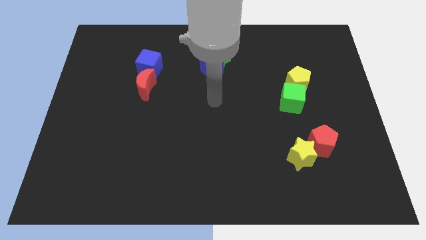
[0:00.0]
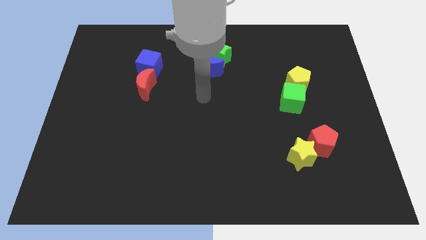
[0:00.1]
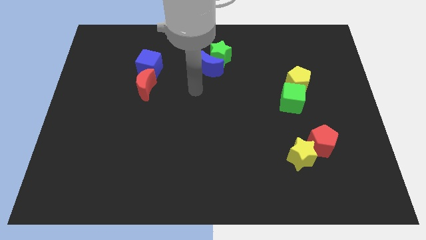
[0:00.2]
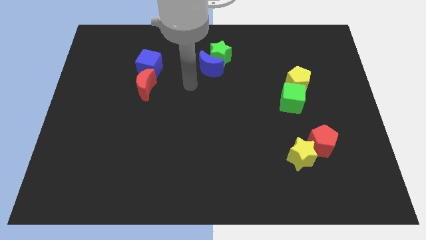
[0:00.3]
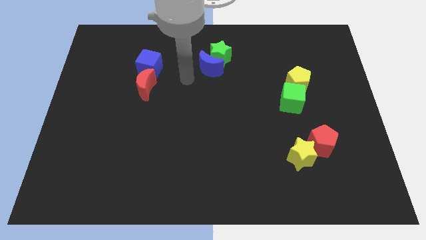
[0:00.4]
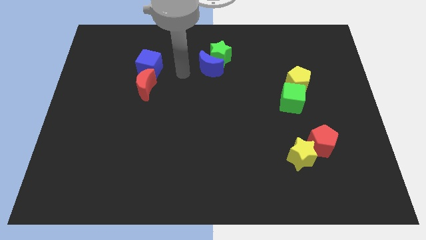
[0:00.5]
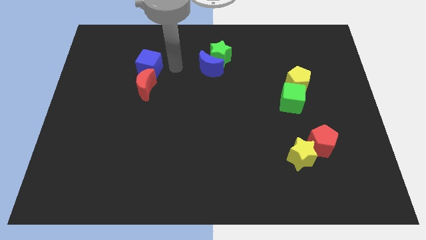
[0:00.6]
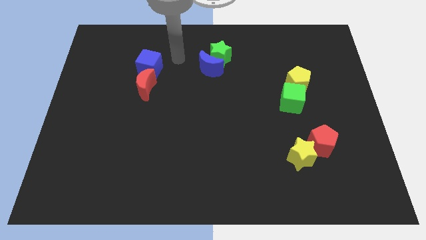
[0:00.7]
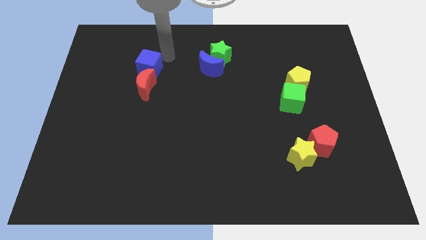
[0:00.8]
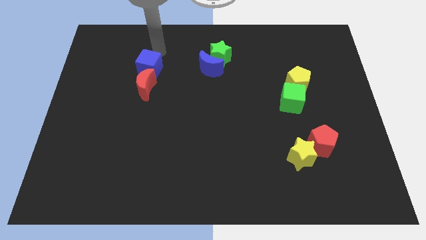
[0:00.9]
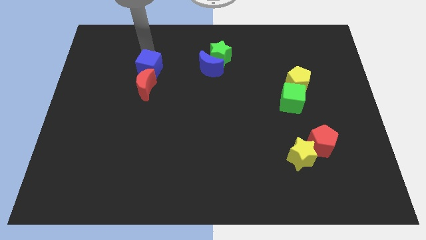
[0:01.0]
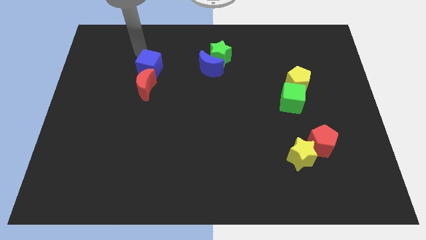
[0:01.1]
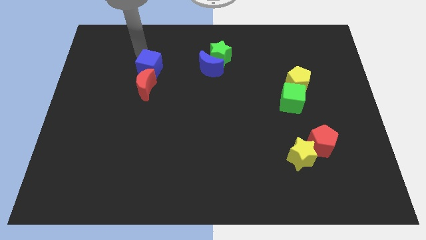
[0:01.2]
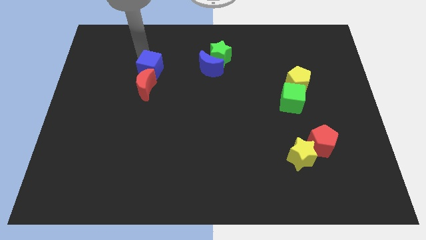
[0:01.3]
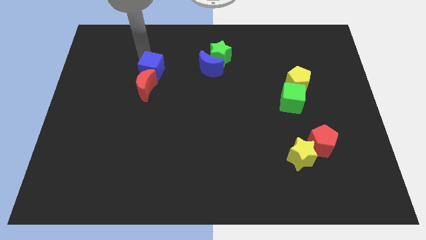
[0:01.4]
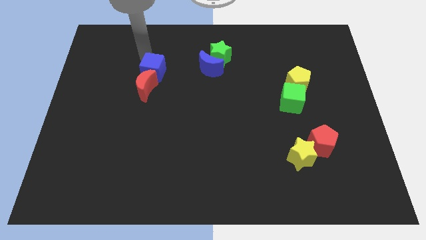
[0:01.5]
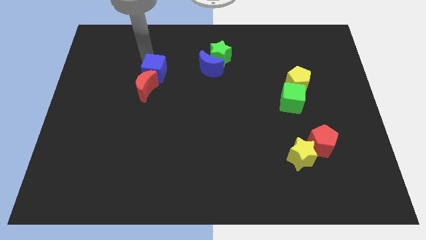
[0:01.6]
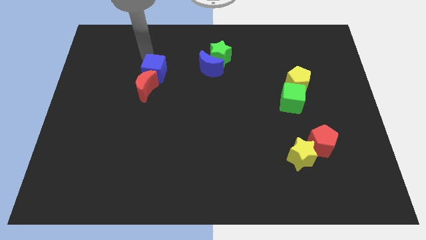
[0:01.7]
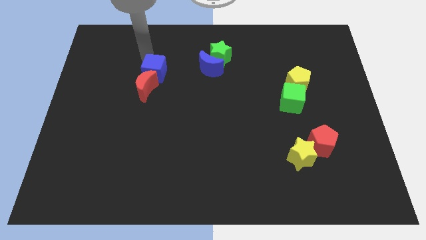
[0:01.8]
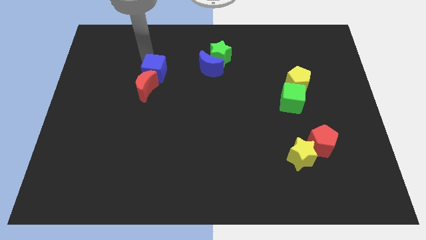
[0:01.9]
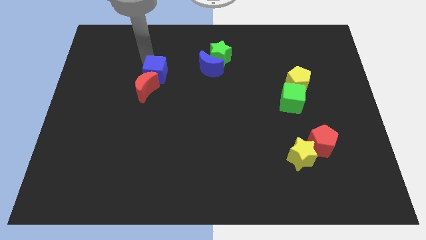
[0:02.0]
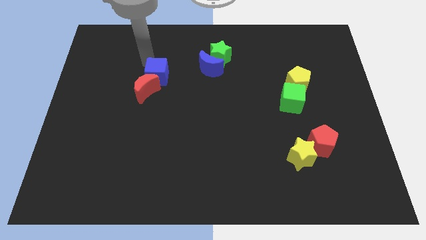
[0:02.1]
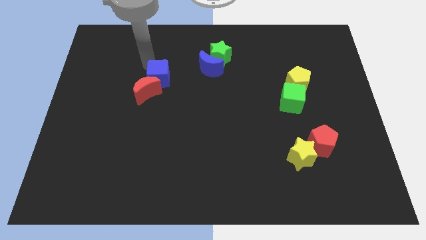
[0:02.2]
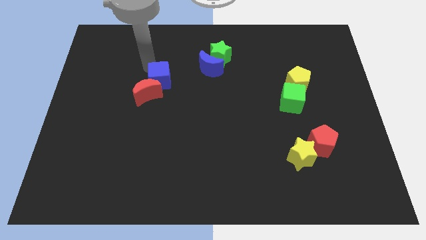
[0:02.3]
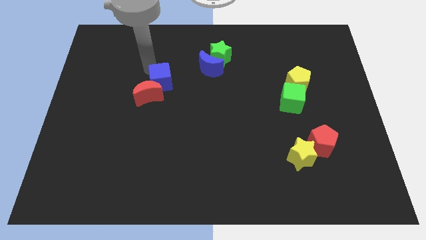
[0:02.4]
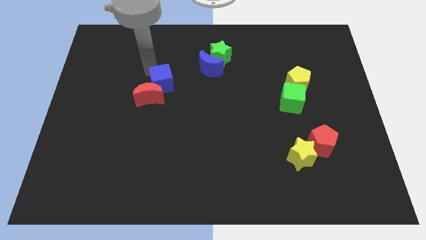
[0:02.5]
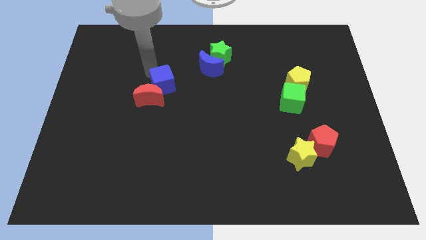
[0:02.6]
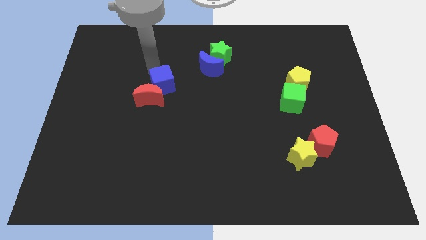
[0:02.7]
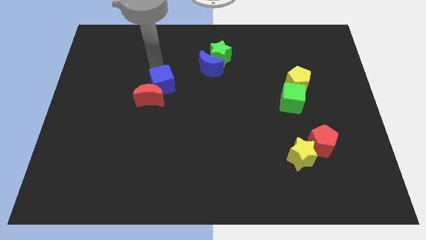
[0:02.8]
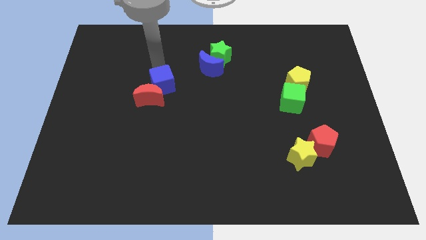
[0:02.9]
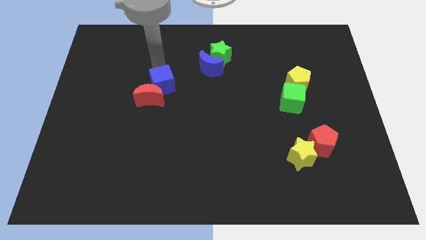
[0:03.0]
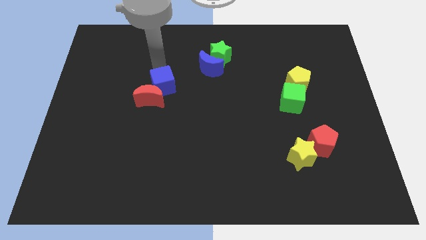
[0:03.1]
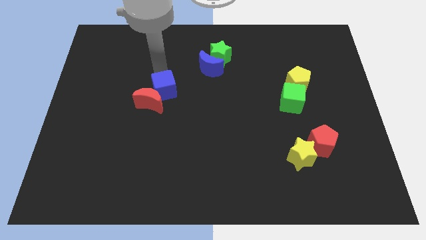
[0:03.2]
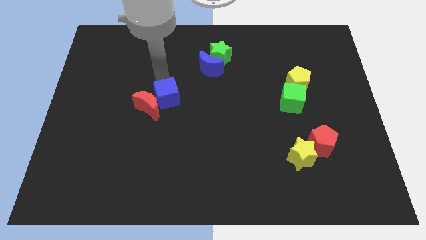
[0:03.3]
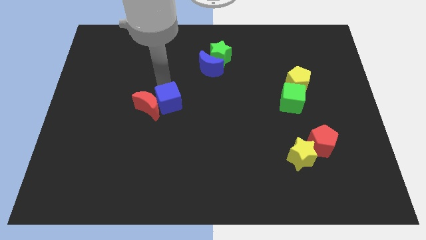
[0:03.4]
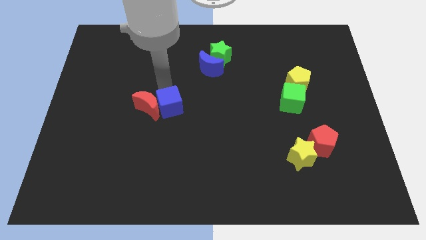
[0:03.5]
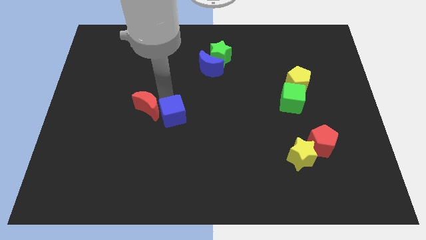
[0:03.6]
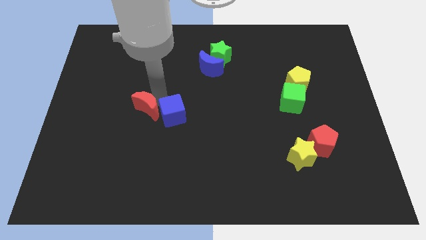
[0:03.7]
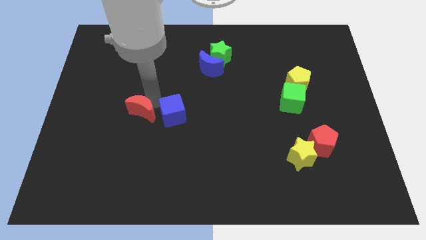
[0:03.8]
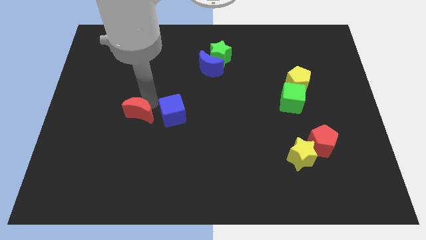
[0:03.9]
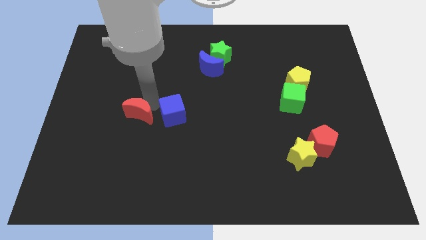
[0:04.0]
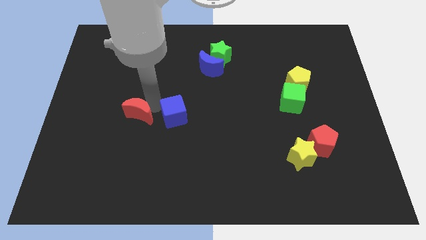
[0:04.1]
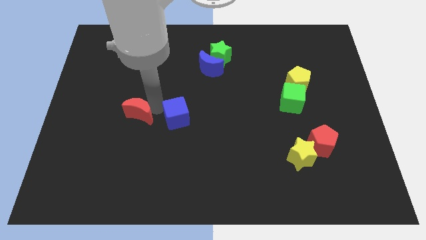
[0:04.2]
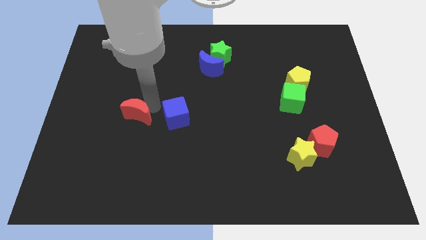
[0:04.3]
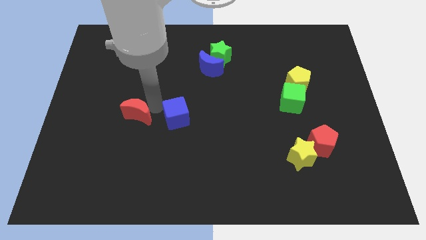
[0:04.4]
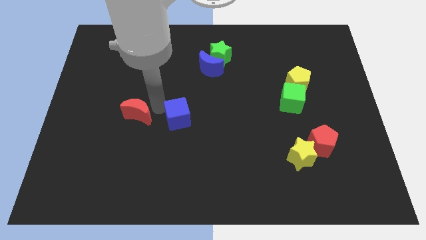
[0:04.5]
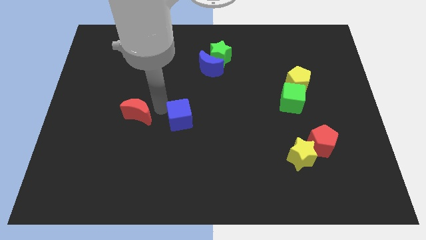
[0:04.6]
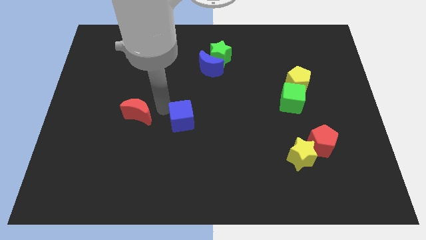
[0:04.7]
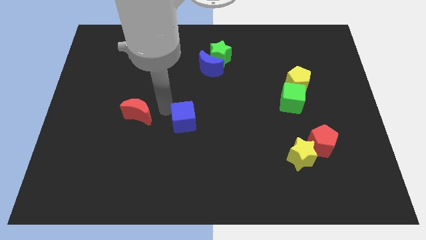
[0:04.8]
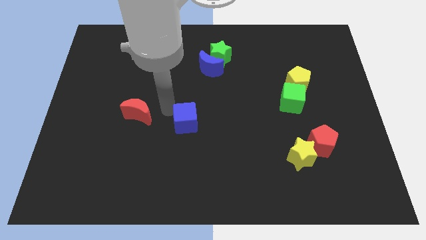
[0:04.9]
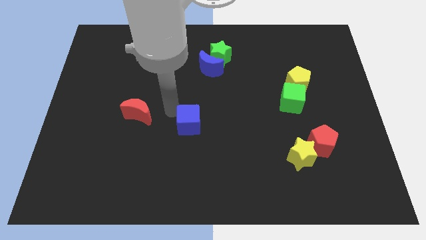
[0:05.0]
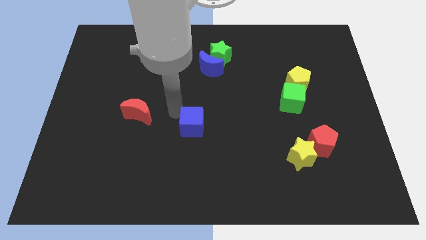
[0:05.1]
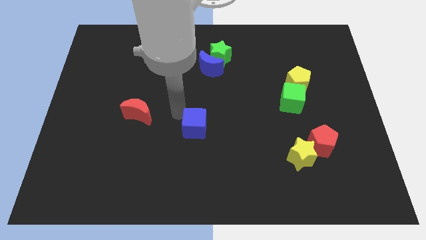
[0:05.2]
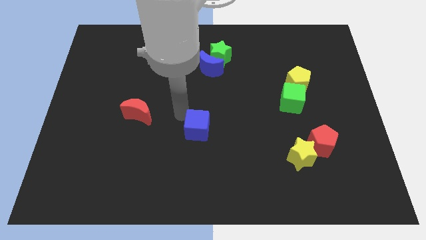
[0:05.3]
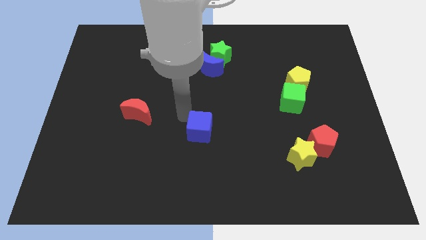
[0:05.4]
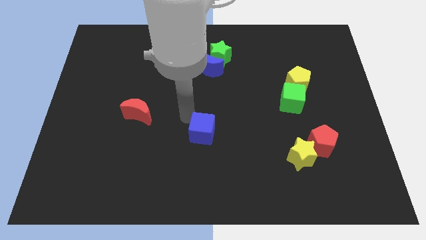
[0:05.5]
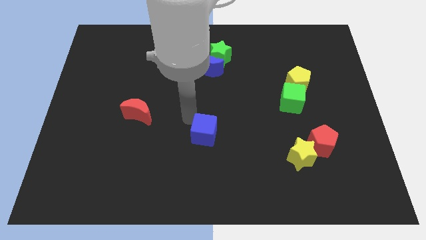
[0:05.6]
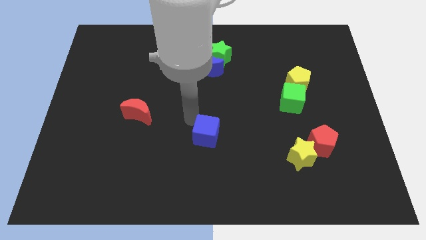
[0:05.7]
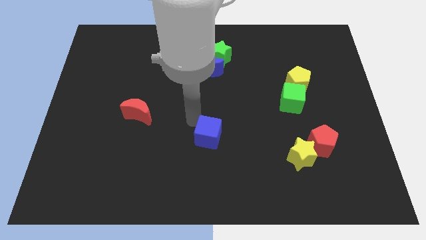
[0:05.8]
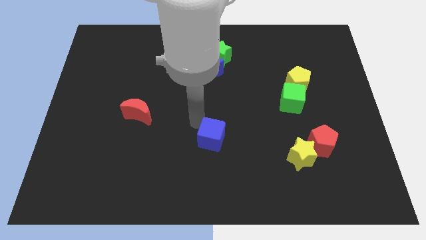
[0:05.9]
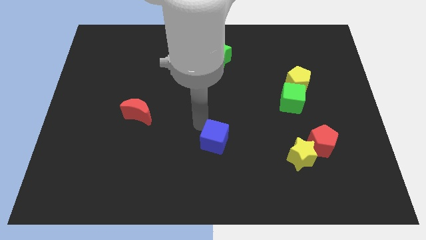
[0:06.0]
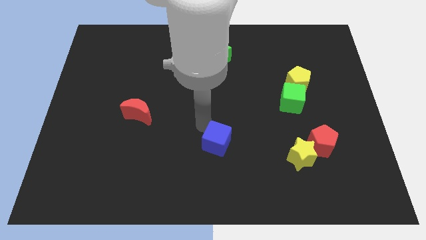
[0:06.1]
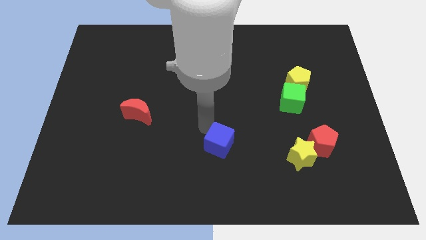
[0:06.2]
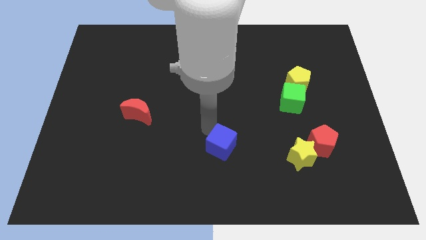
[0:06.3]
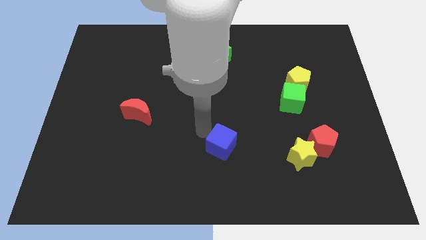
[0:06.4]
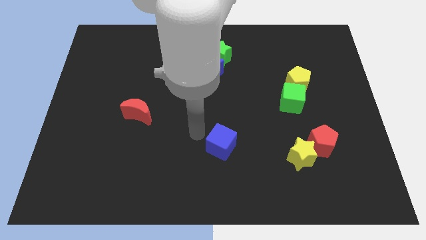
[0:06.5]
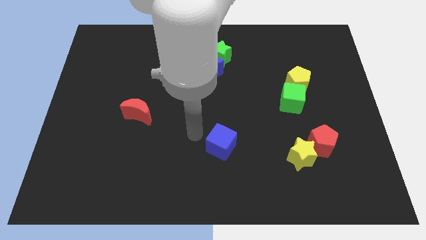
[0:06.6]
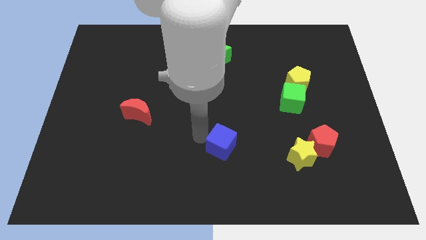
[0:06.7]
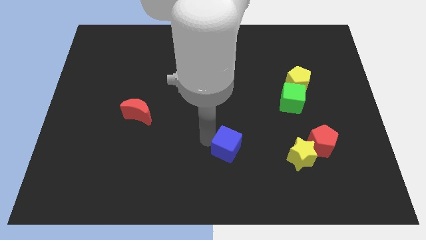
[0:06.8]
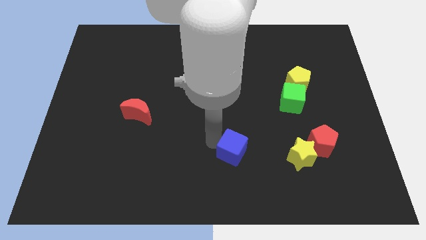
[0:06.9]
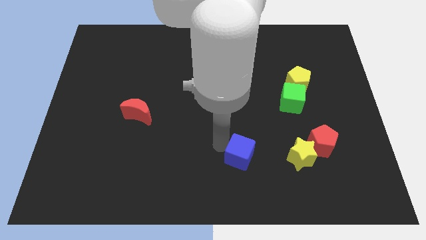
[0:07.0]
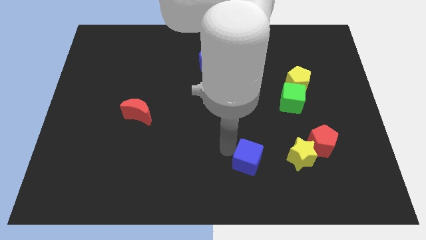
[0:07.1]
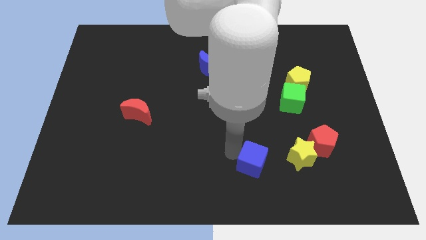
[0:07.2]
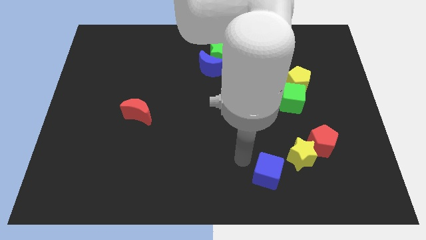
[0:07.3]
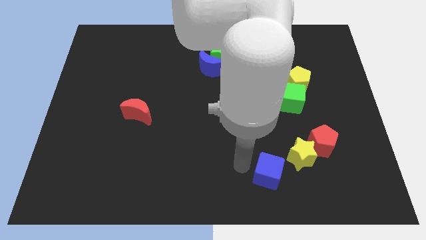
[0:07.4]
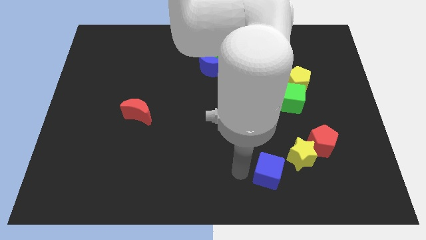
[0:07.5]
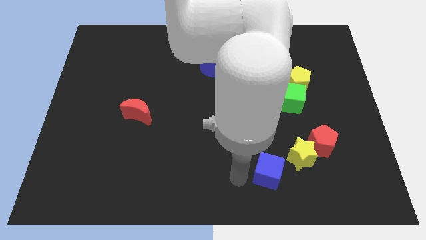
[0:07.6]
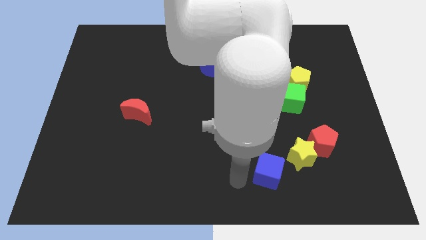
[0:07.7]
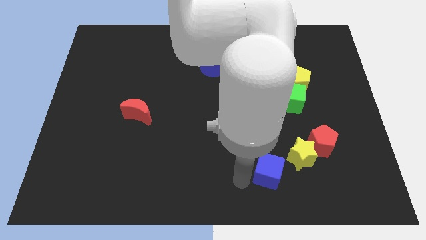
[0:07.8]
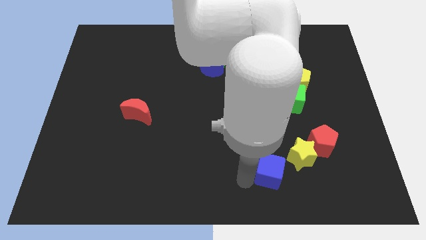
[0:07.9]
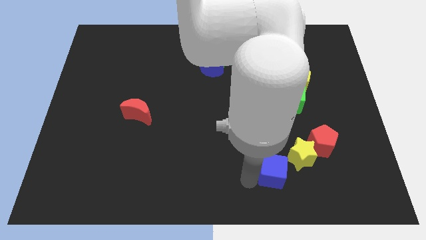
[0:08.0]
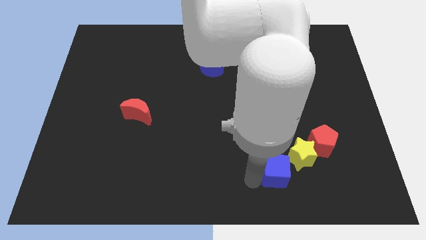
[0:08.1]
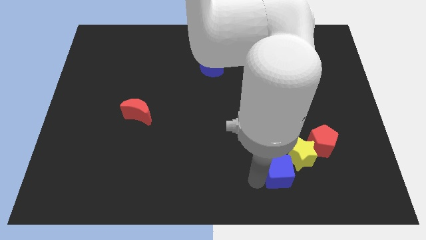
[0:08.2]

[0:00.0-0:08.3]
push the blue cube diagonally down and to the left of the red pentagon
